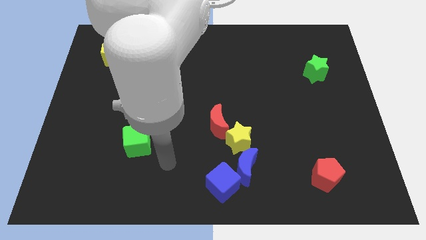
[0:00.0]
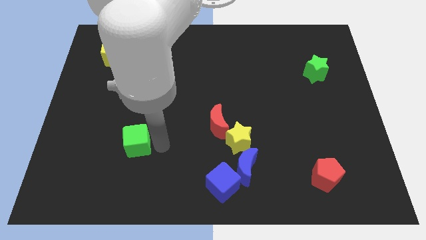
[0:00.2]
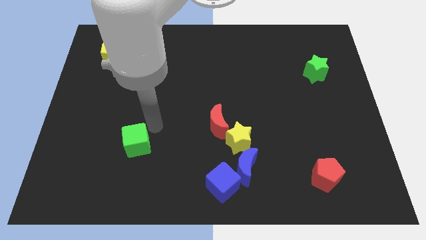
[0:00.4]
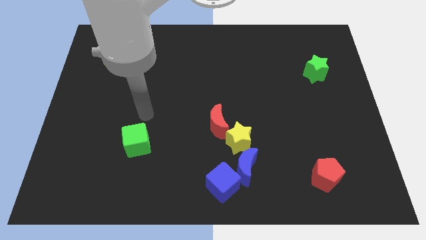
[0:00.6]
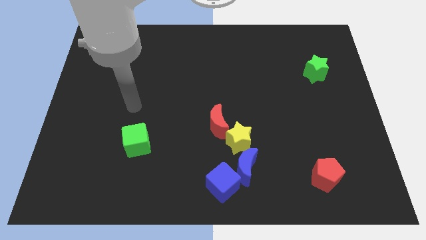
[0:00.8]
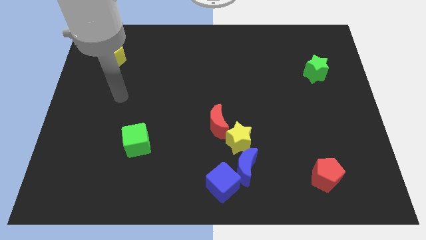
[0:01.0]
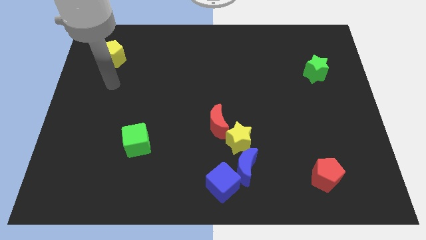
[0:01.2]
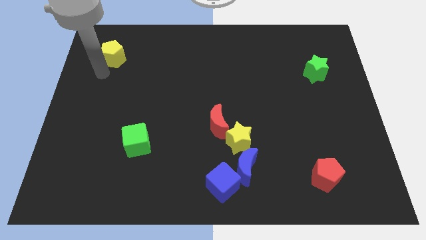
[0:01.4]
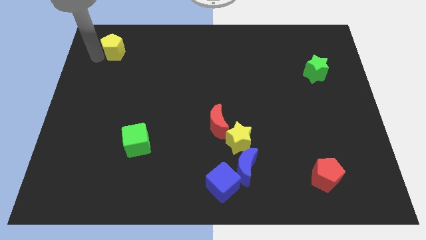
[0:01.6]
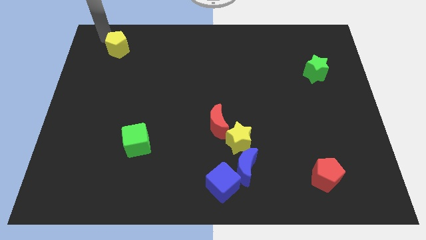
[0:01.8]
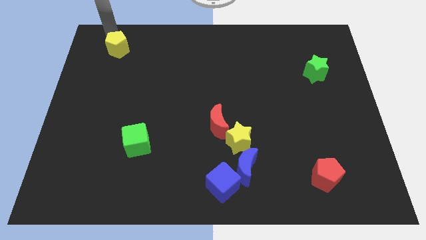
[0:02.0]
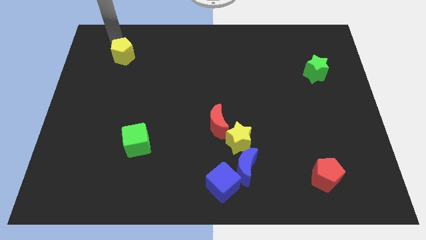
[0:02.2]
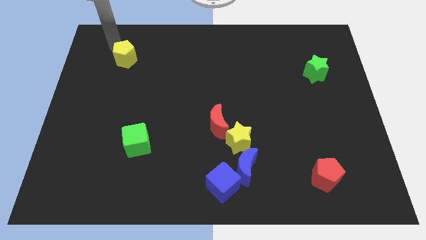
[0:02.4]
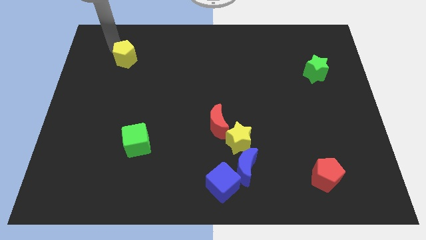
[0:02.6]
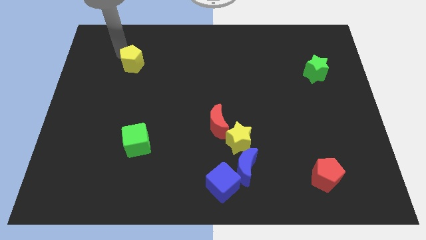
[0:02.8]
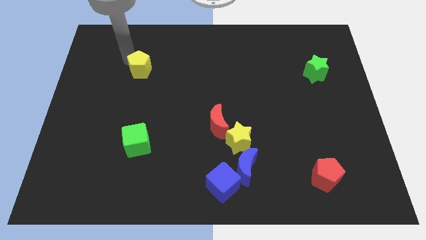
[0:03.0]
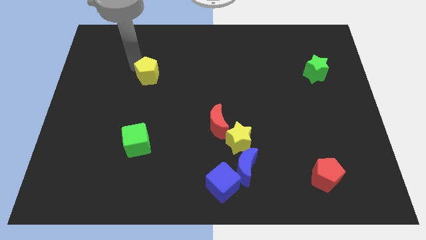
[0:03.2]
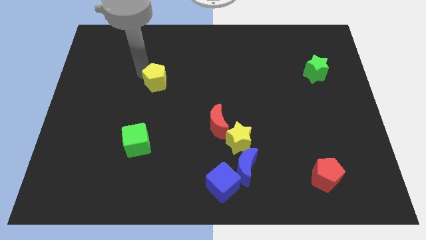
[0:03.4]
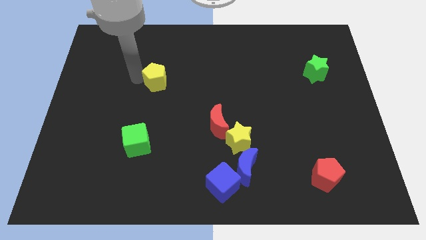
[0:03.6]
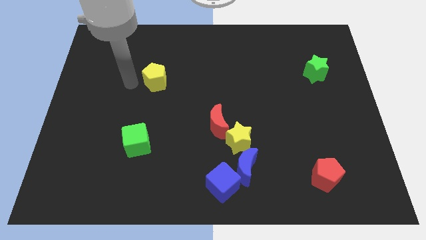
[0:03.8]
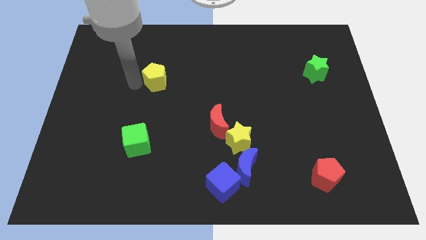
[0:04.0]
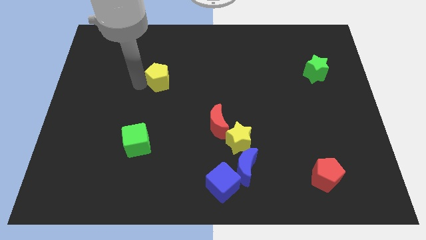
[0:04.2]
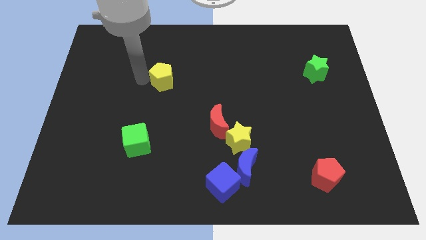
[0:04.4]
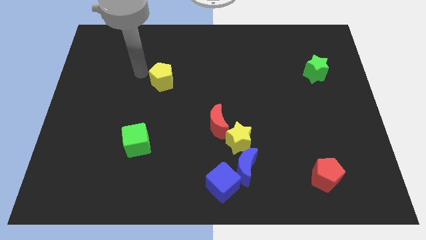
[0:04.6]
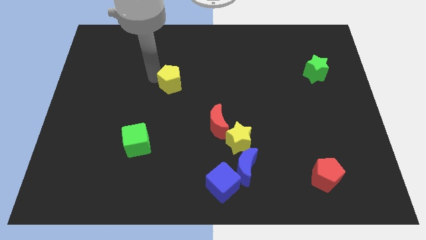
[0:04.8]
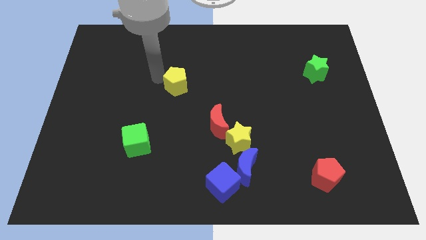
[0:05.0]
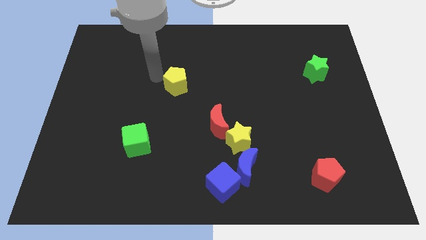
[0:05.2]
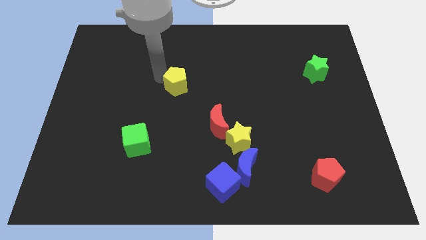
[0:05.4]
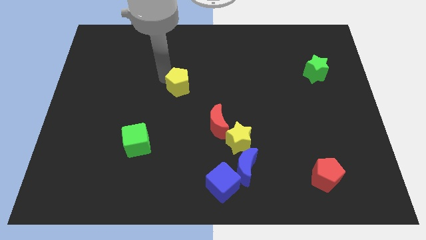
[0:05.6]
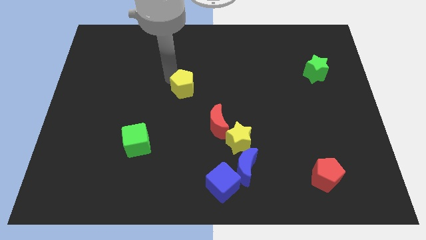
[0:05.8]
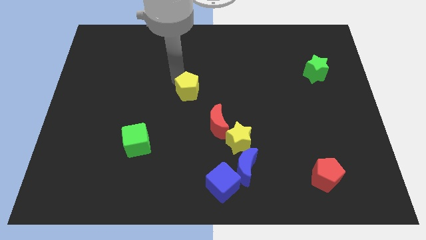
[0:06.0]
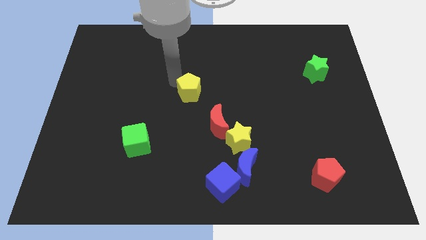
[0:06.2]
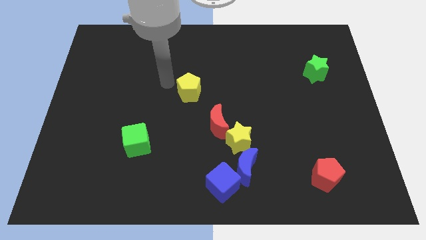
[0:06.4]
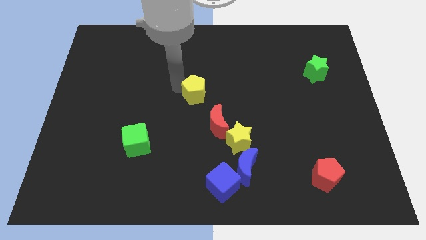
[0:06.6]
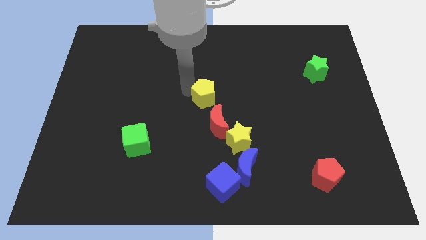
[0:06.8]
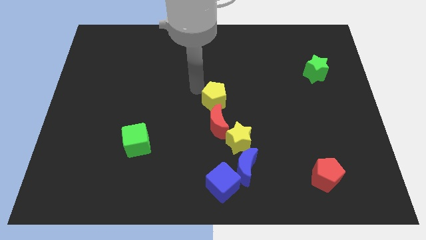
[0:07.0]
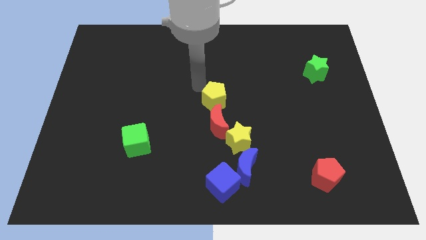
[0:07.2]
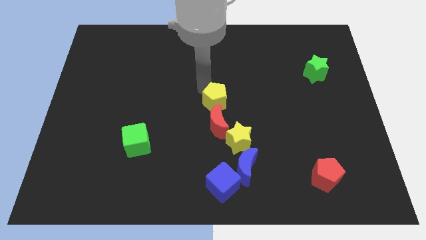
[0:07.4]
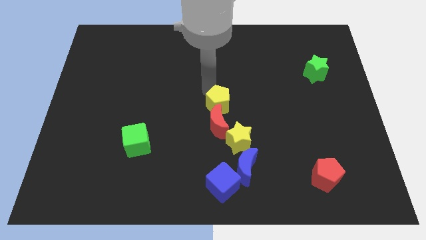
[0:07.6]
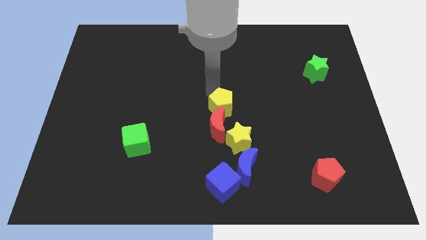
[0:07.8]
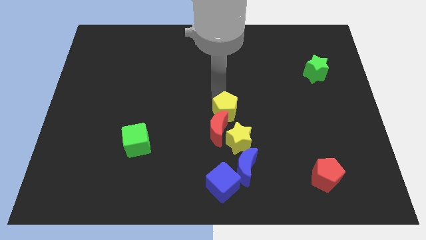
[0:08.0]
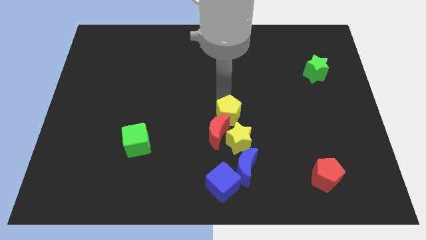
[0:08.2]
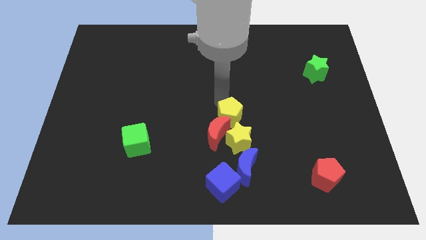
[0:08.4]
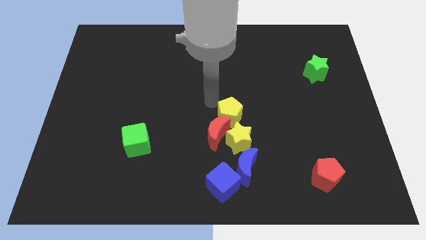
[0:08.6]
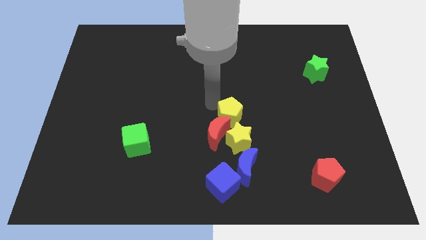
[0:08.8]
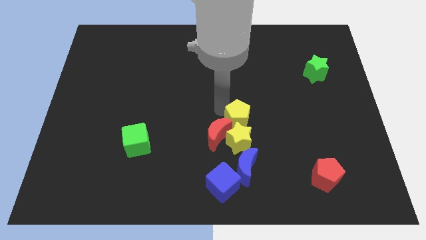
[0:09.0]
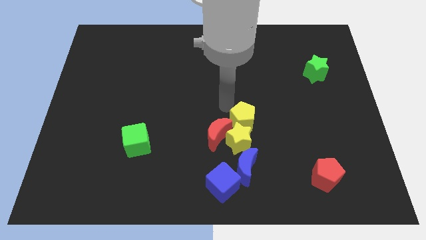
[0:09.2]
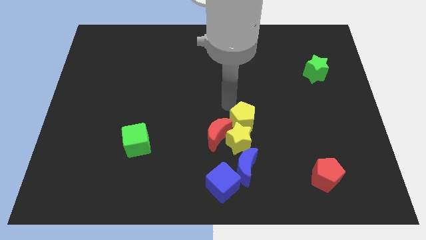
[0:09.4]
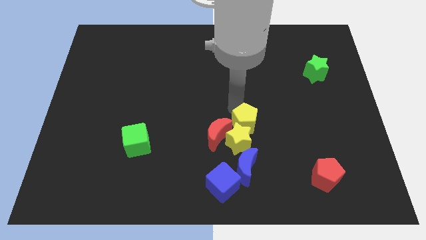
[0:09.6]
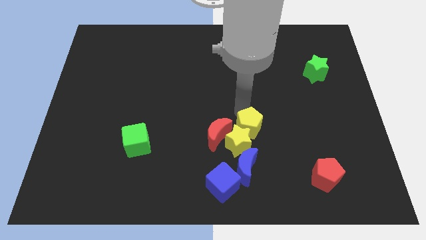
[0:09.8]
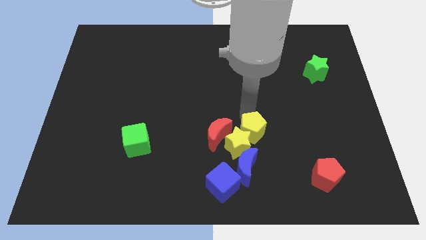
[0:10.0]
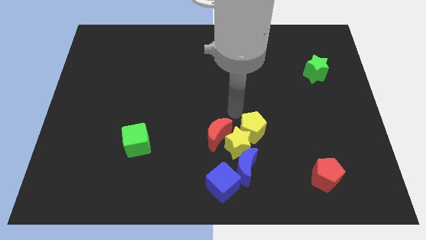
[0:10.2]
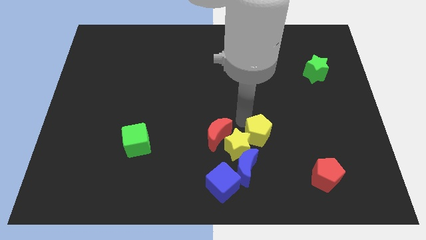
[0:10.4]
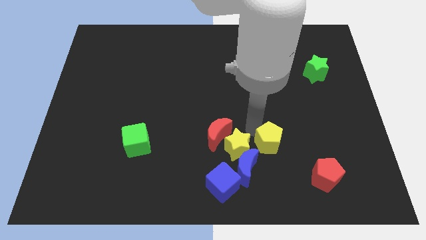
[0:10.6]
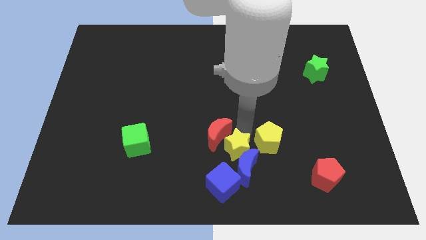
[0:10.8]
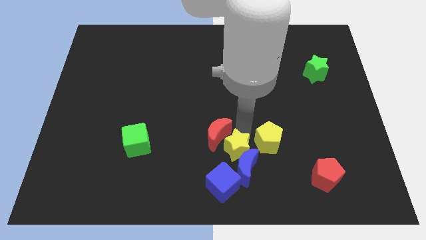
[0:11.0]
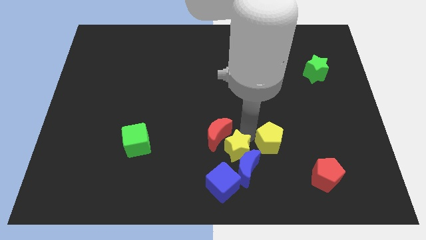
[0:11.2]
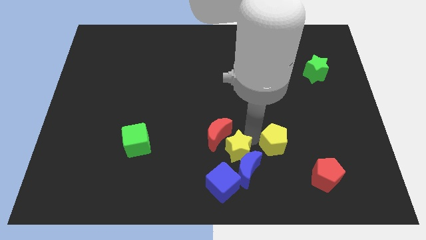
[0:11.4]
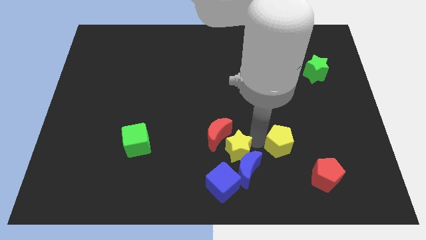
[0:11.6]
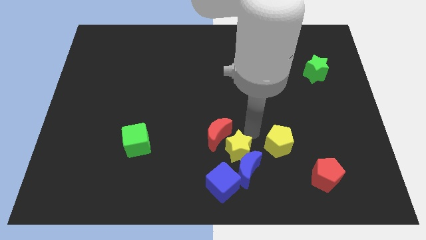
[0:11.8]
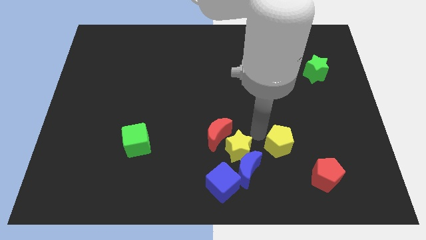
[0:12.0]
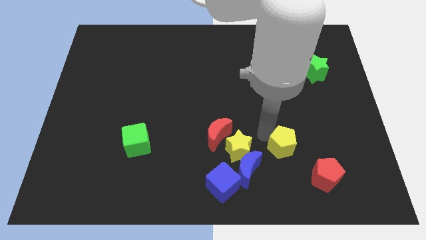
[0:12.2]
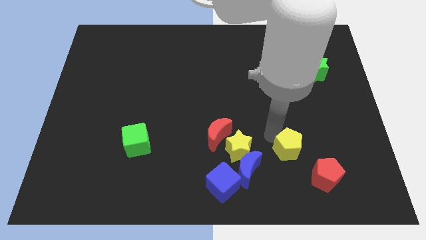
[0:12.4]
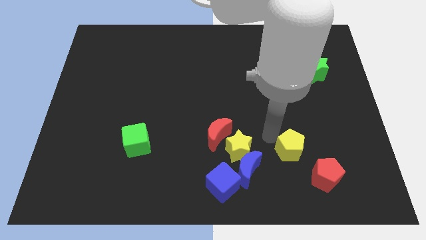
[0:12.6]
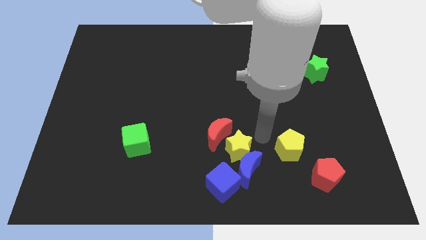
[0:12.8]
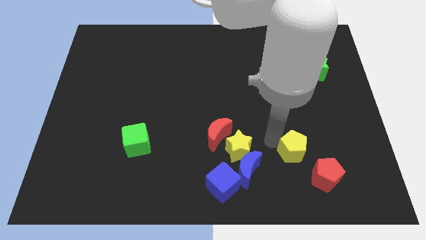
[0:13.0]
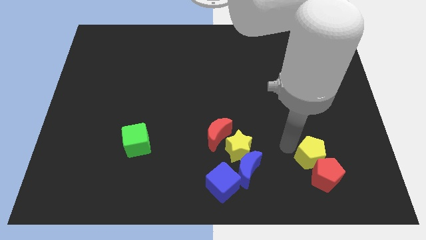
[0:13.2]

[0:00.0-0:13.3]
slide the yellow pentagon close to the red pentagon

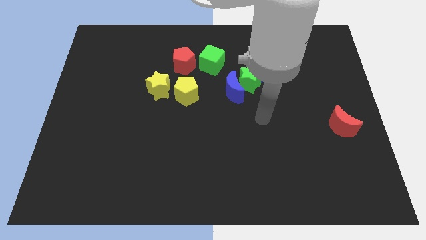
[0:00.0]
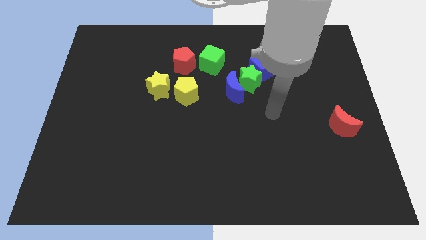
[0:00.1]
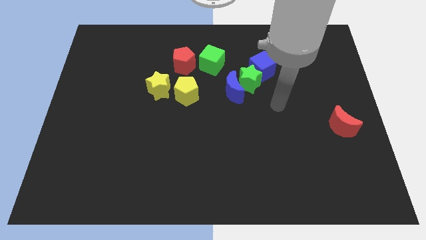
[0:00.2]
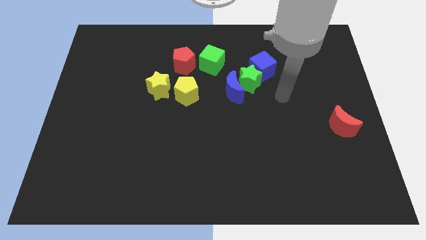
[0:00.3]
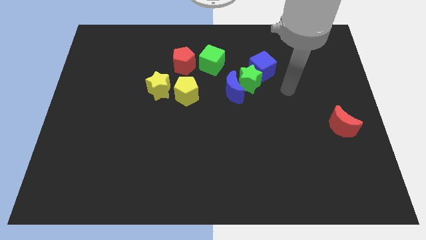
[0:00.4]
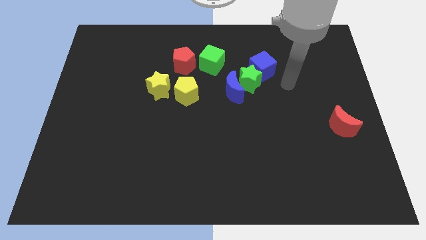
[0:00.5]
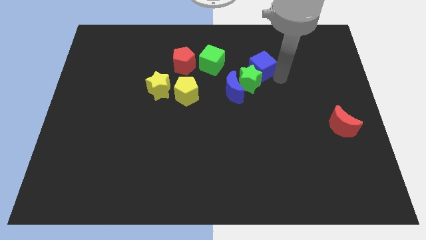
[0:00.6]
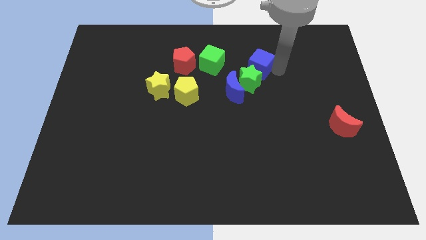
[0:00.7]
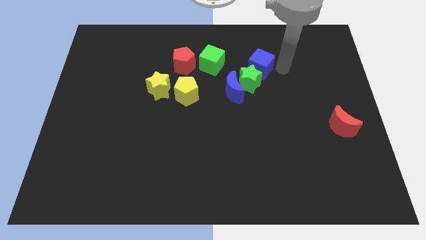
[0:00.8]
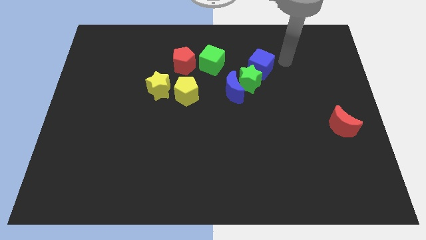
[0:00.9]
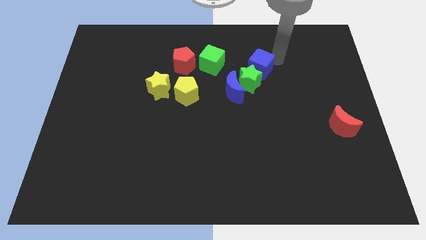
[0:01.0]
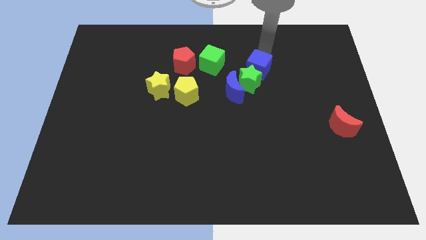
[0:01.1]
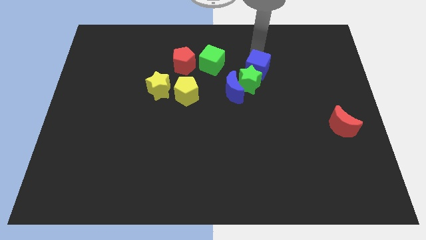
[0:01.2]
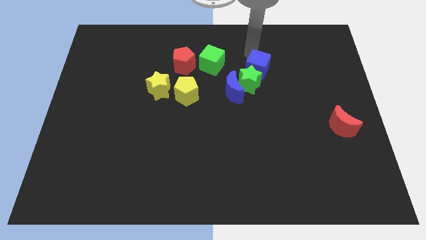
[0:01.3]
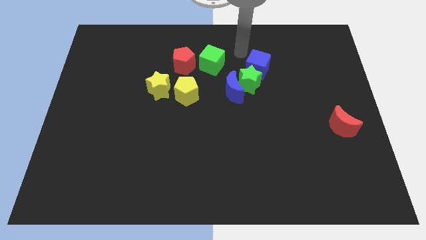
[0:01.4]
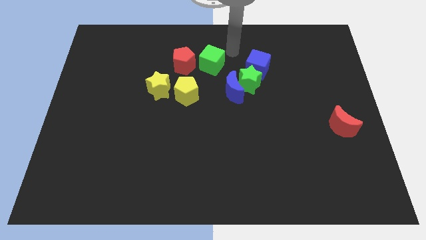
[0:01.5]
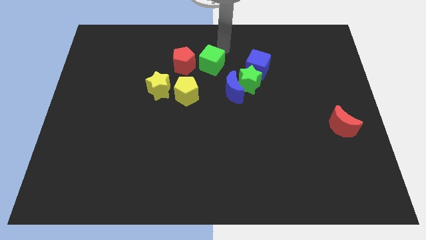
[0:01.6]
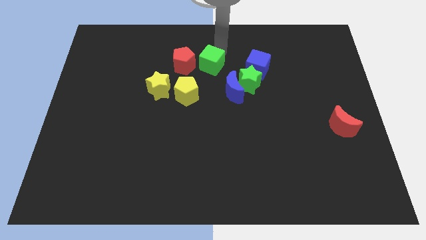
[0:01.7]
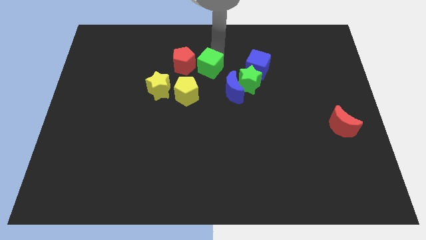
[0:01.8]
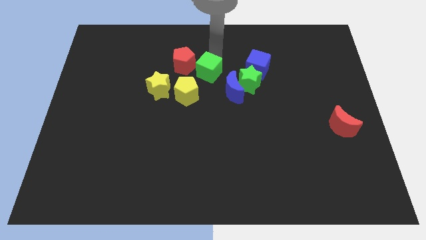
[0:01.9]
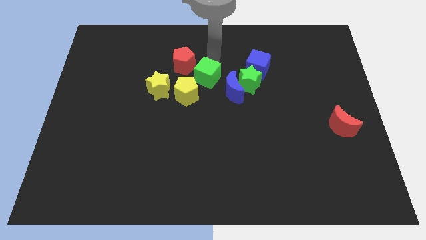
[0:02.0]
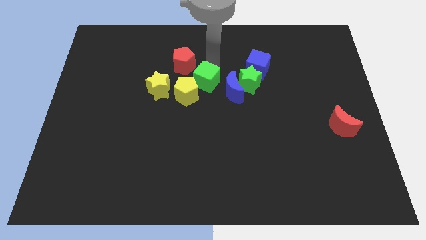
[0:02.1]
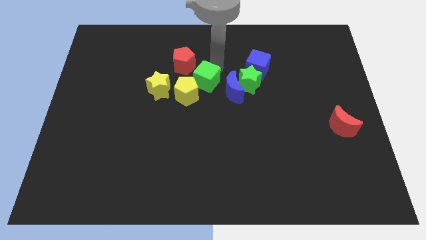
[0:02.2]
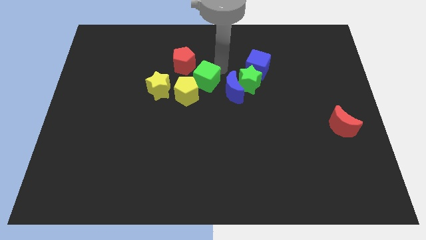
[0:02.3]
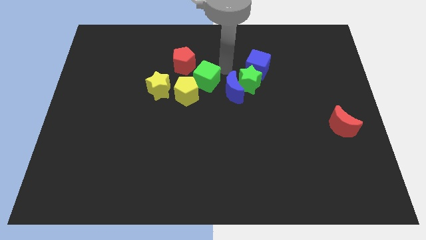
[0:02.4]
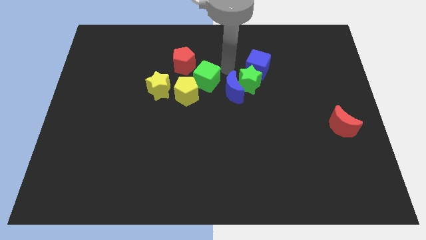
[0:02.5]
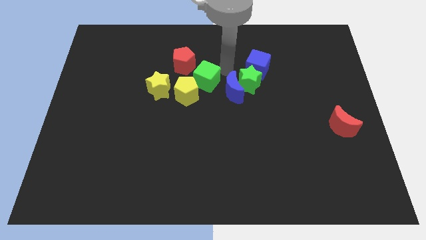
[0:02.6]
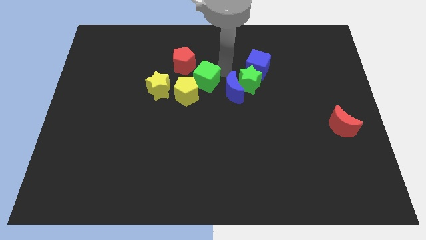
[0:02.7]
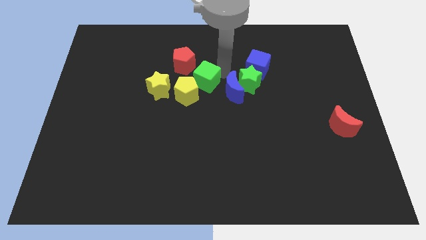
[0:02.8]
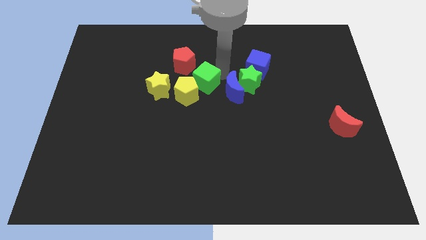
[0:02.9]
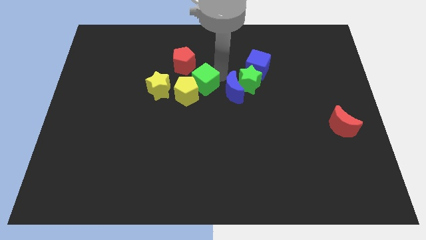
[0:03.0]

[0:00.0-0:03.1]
move the green cube close to the yellow pentagon
